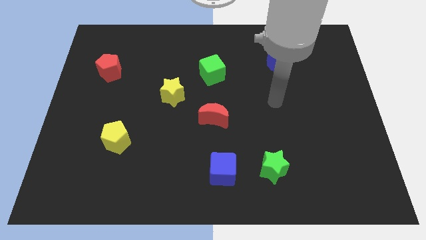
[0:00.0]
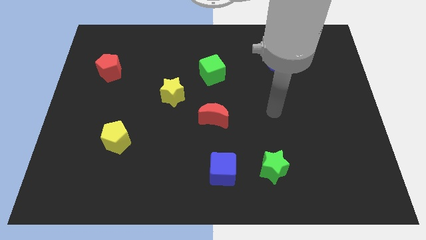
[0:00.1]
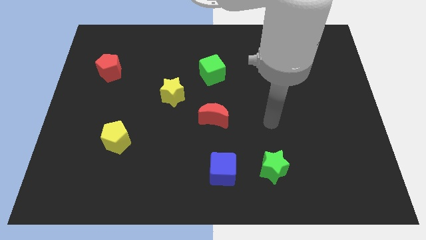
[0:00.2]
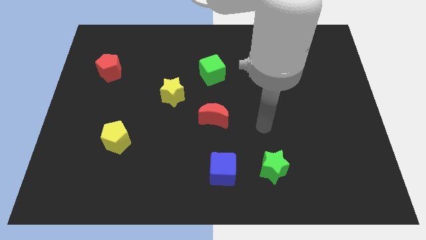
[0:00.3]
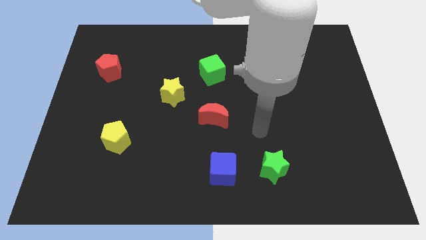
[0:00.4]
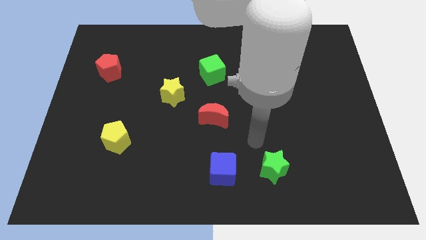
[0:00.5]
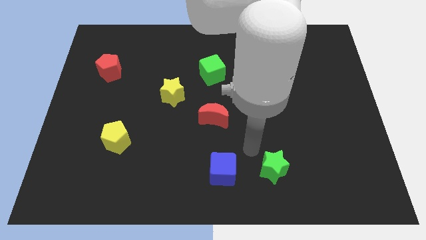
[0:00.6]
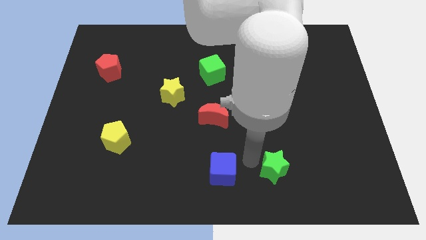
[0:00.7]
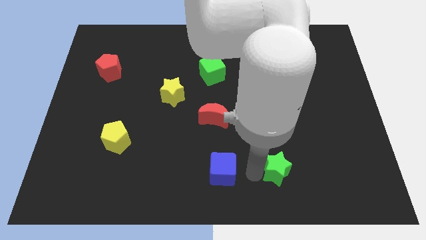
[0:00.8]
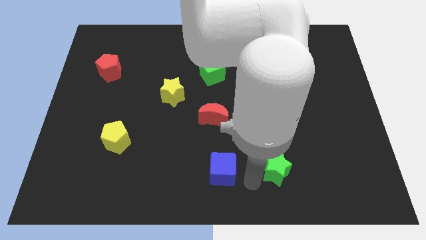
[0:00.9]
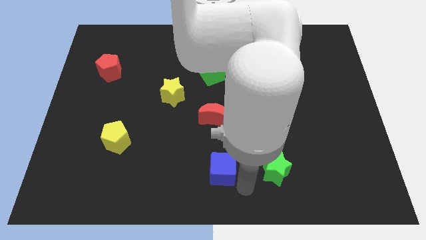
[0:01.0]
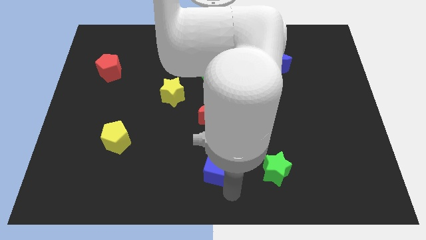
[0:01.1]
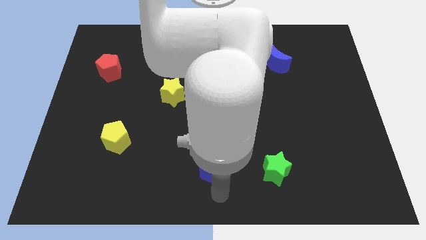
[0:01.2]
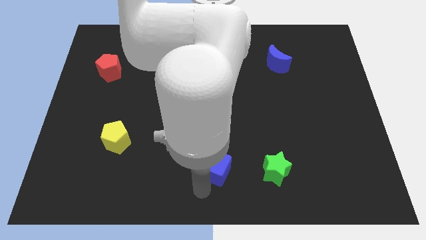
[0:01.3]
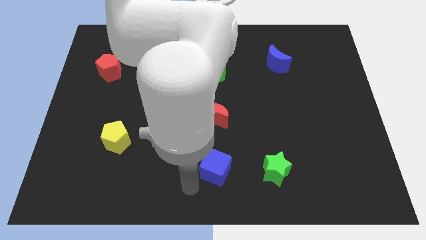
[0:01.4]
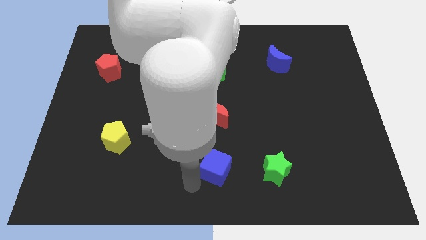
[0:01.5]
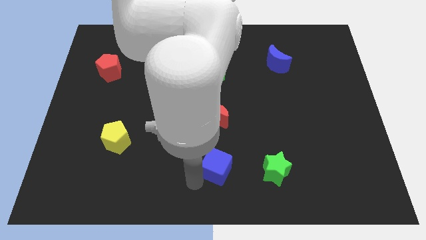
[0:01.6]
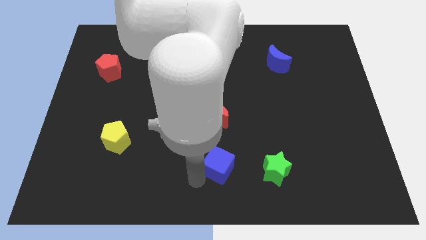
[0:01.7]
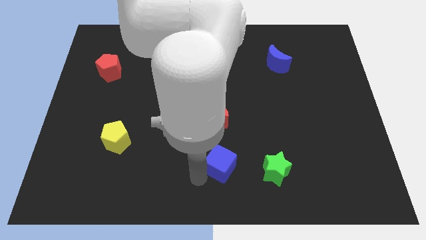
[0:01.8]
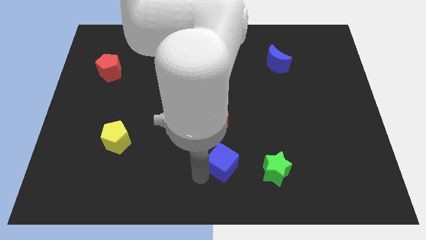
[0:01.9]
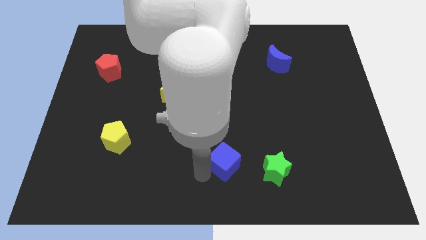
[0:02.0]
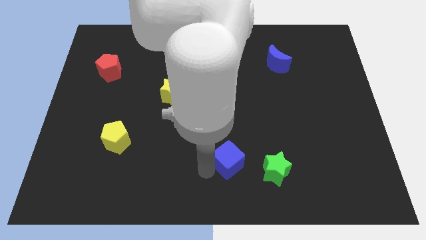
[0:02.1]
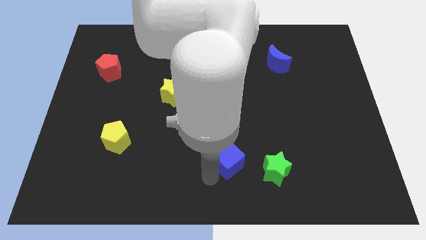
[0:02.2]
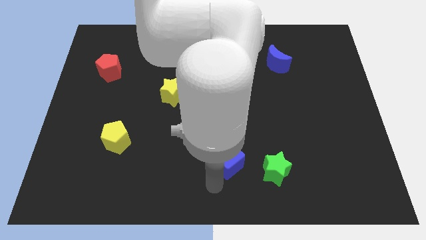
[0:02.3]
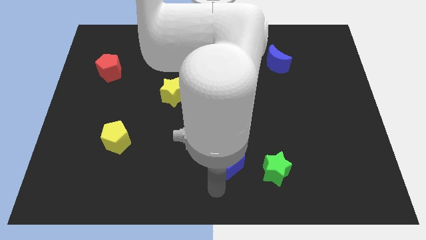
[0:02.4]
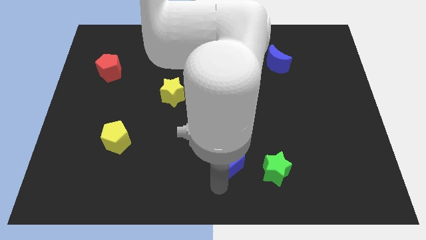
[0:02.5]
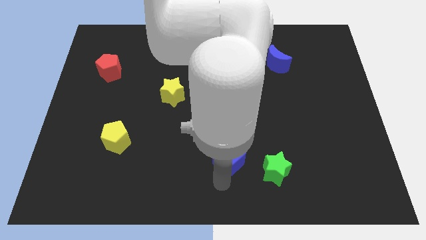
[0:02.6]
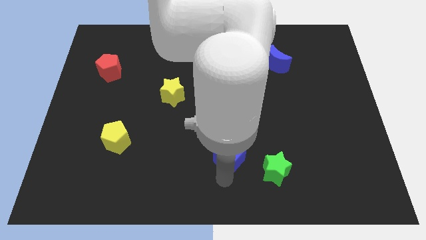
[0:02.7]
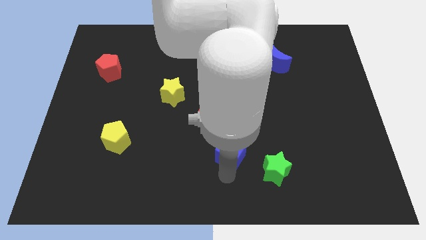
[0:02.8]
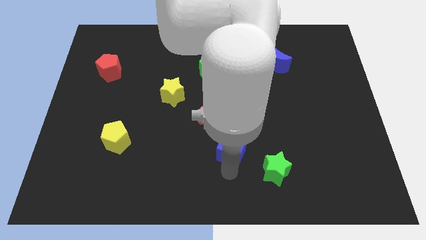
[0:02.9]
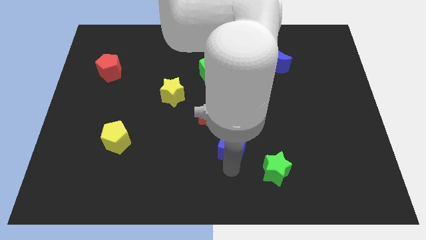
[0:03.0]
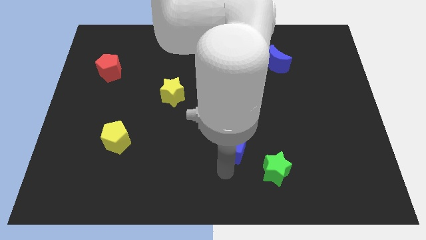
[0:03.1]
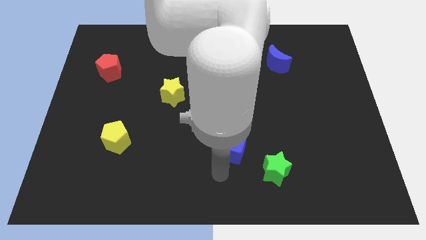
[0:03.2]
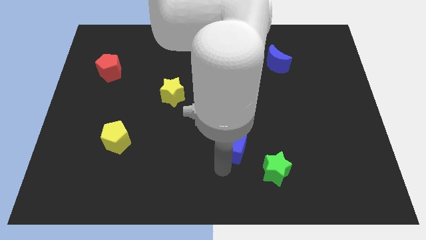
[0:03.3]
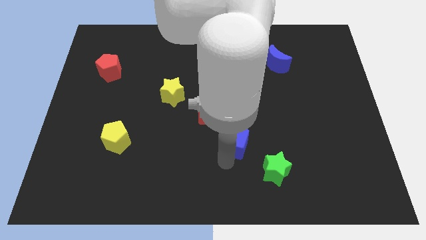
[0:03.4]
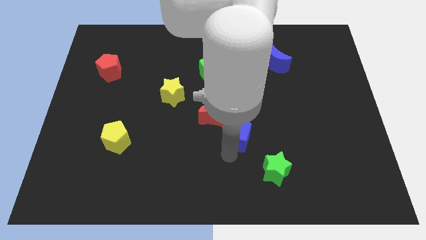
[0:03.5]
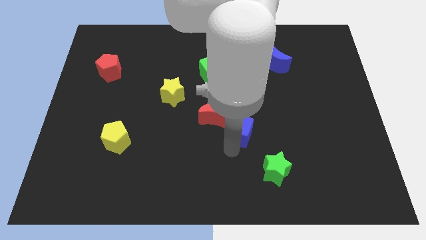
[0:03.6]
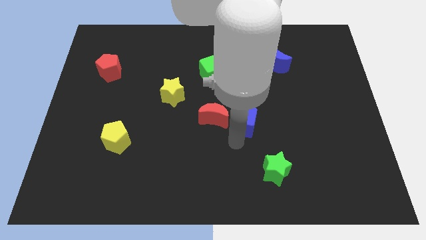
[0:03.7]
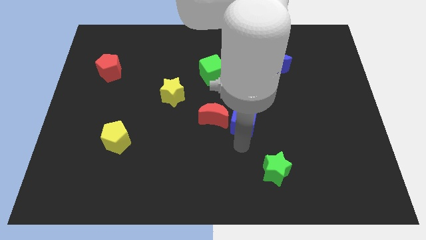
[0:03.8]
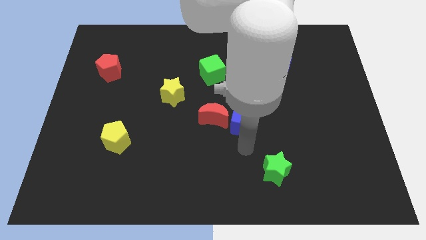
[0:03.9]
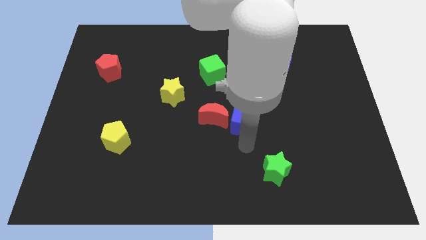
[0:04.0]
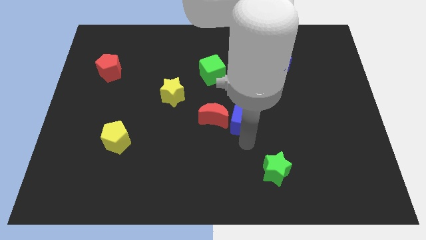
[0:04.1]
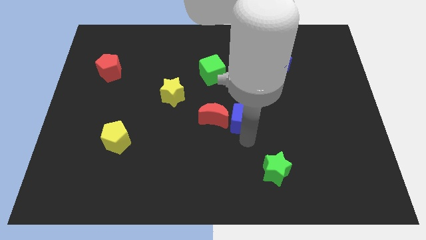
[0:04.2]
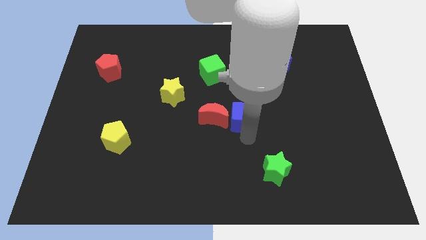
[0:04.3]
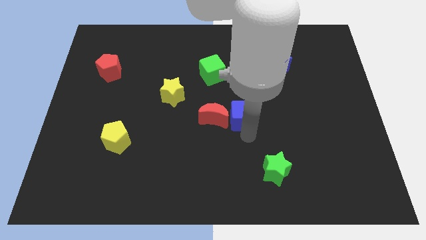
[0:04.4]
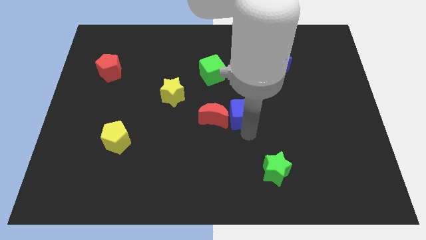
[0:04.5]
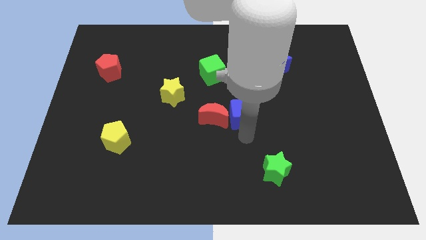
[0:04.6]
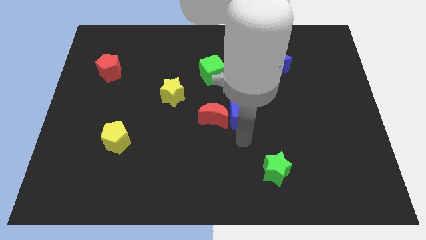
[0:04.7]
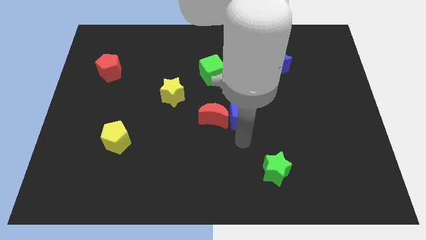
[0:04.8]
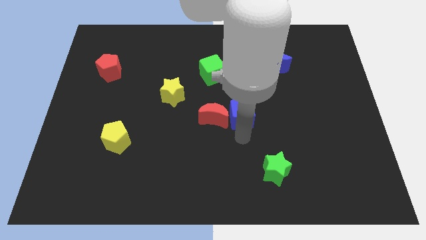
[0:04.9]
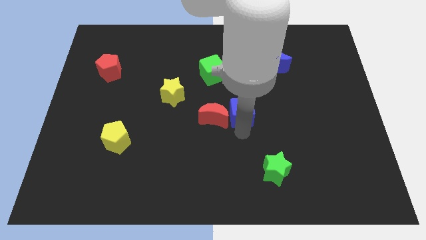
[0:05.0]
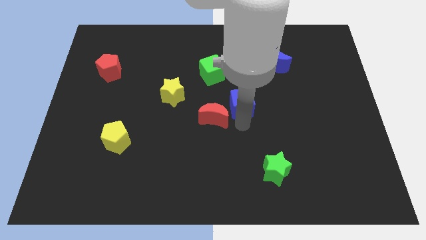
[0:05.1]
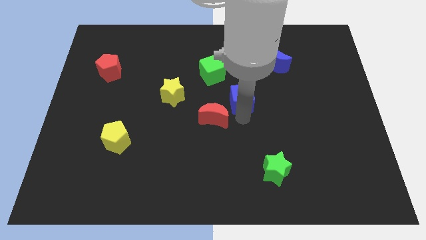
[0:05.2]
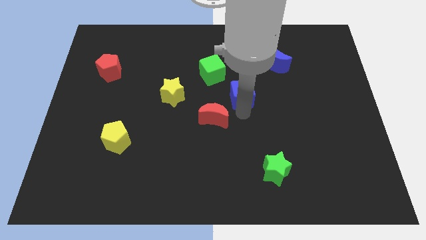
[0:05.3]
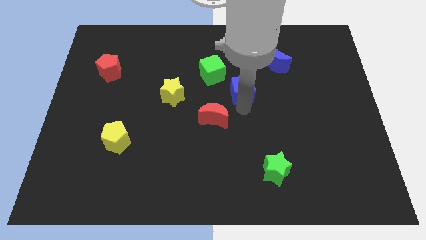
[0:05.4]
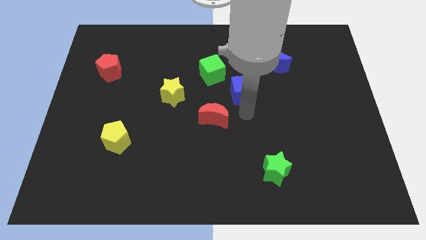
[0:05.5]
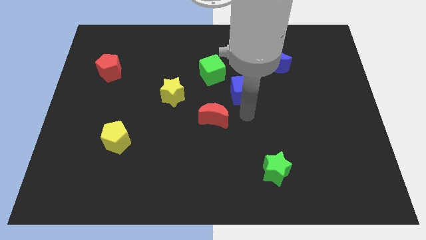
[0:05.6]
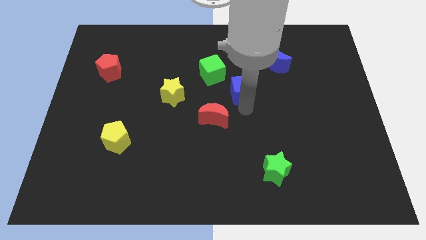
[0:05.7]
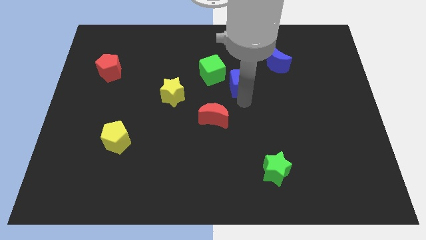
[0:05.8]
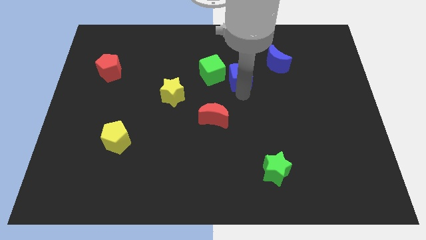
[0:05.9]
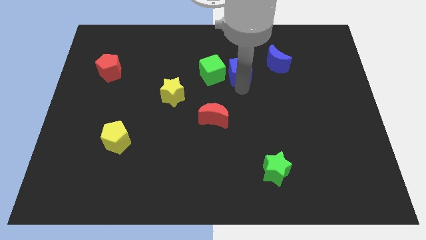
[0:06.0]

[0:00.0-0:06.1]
move the blue cube left of the blue moon
